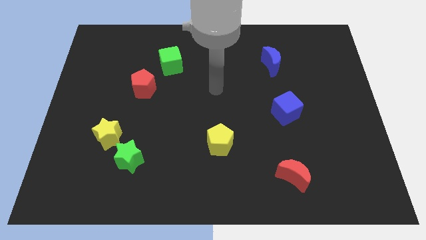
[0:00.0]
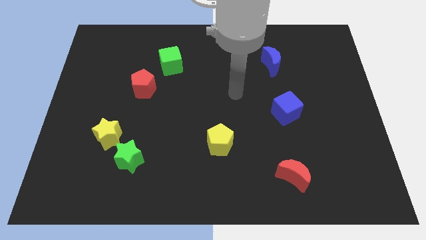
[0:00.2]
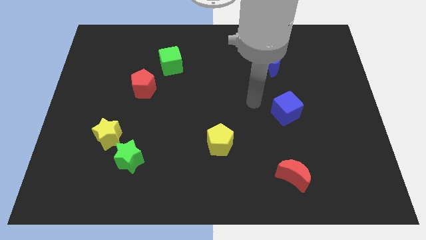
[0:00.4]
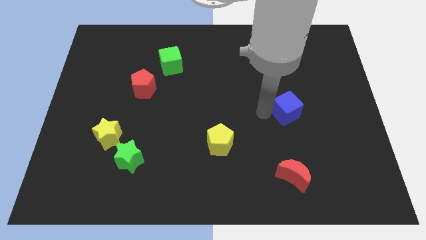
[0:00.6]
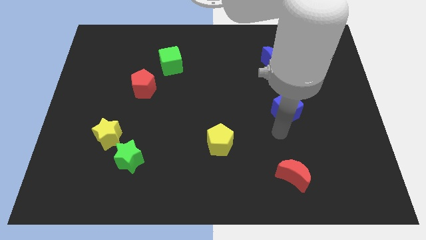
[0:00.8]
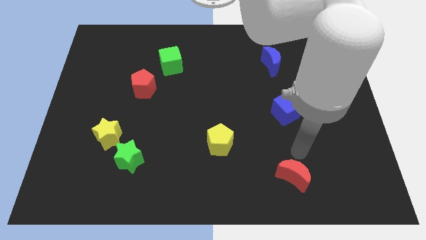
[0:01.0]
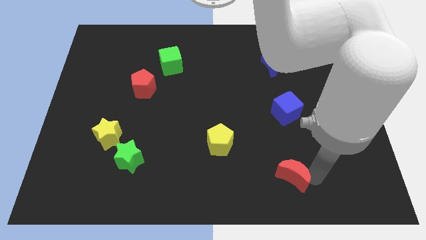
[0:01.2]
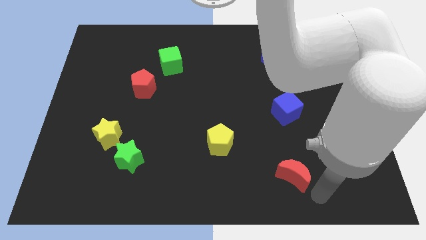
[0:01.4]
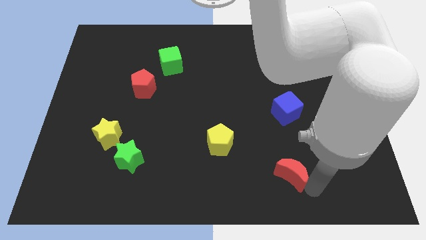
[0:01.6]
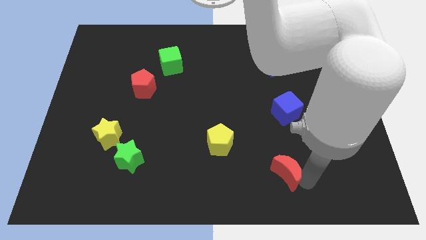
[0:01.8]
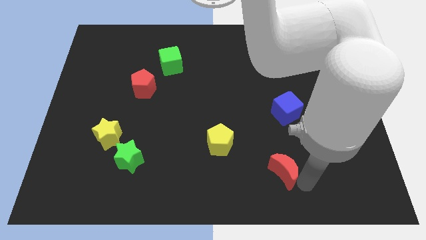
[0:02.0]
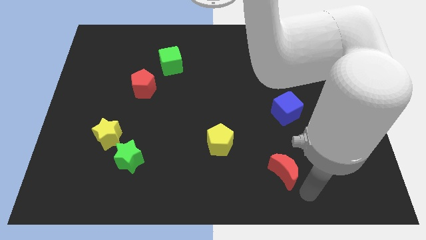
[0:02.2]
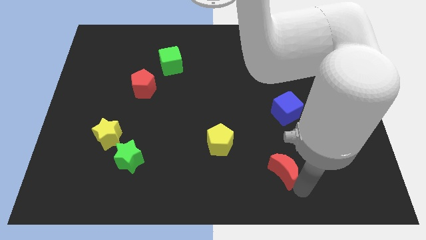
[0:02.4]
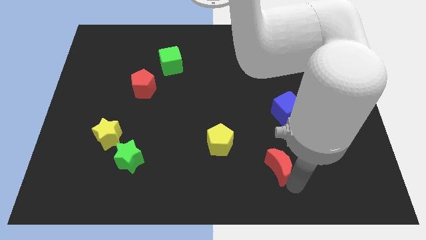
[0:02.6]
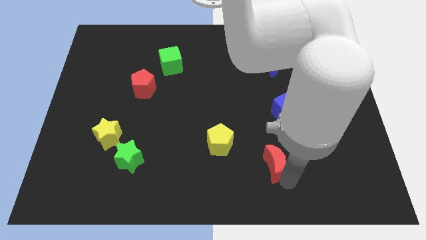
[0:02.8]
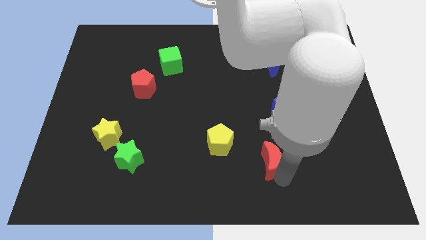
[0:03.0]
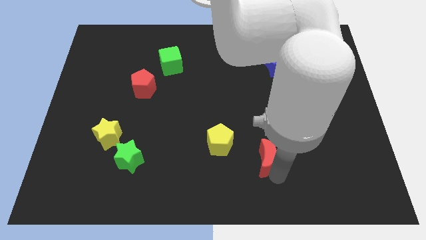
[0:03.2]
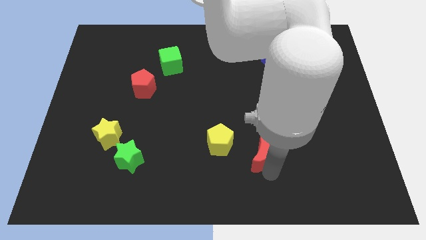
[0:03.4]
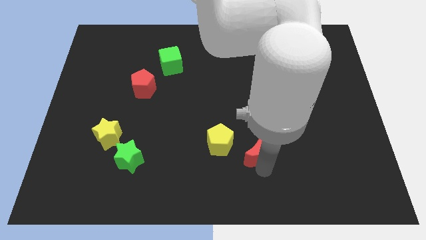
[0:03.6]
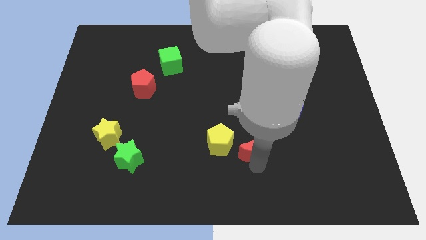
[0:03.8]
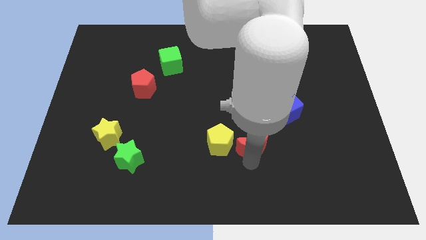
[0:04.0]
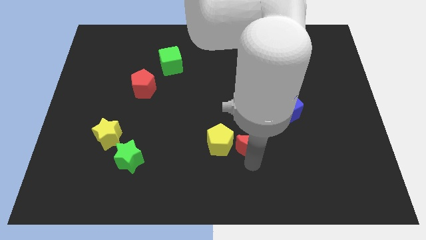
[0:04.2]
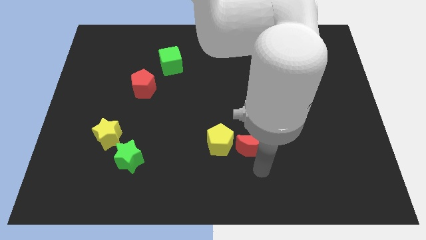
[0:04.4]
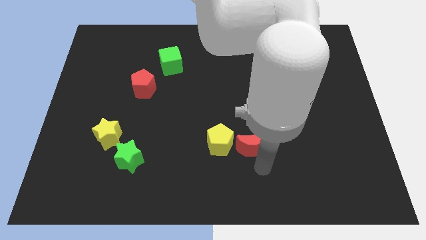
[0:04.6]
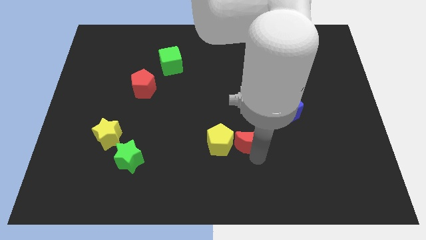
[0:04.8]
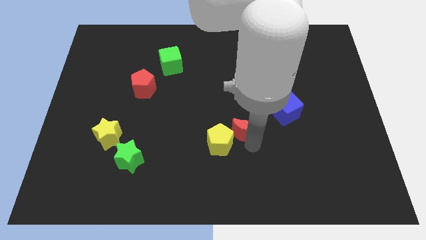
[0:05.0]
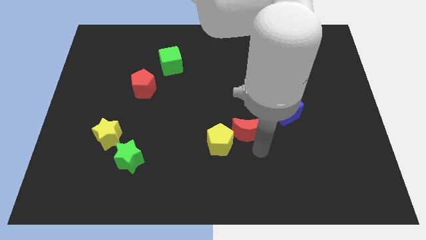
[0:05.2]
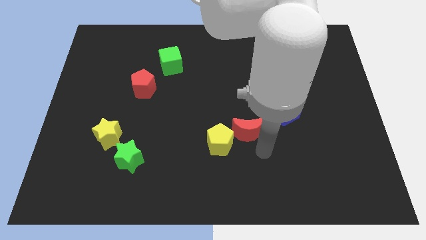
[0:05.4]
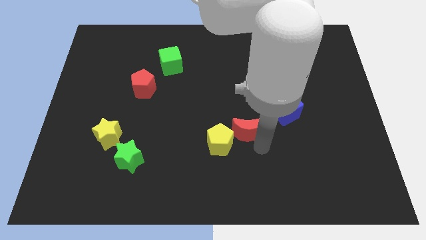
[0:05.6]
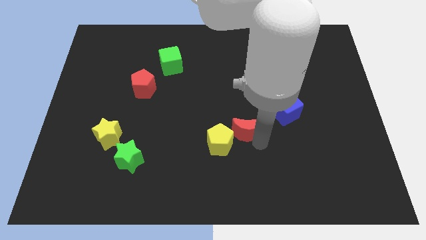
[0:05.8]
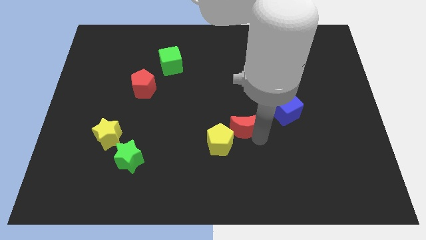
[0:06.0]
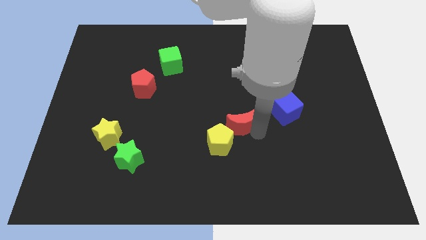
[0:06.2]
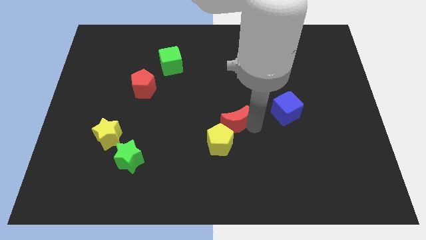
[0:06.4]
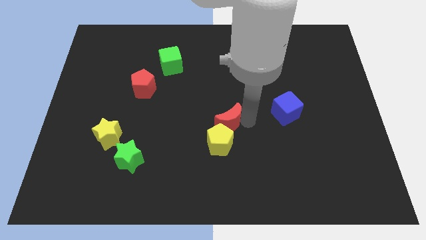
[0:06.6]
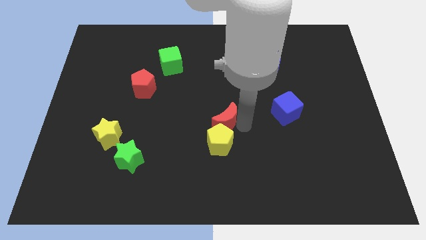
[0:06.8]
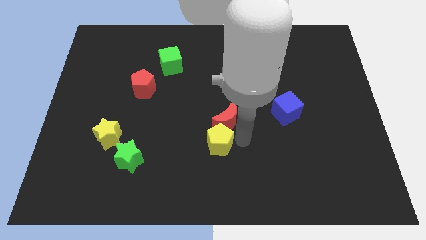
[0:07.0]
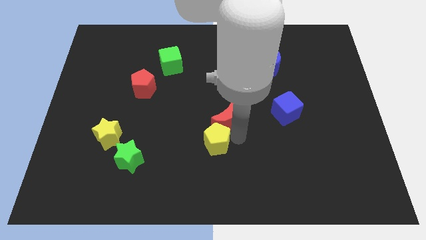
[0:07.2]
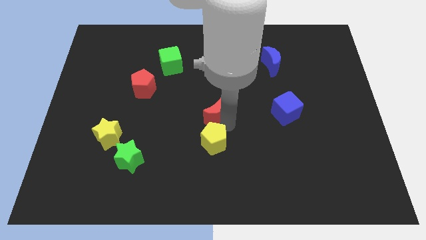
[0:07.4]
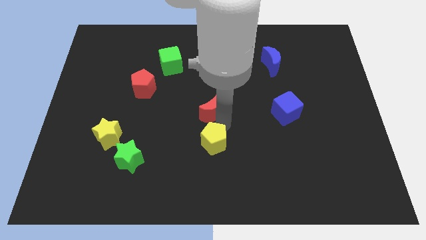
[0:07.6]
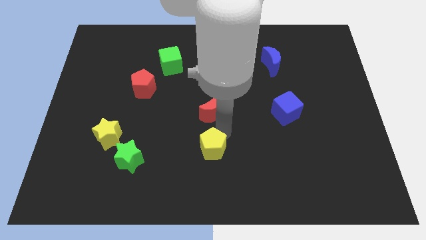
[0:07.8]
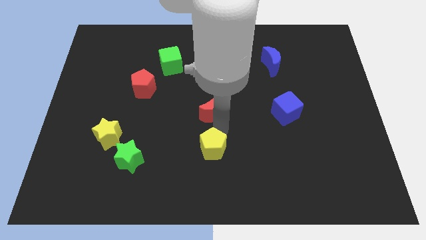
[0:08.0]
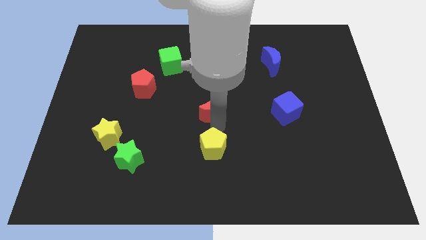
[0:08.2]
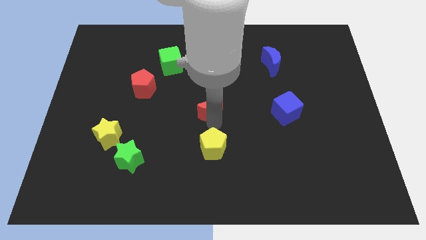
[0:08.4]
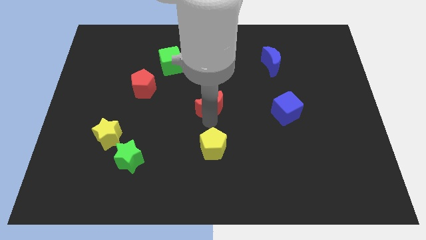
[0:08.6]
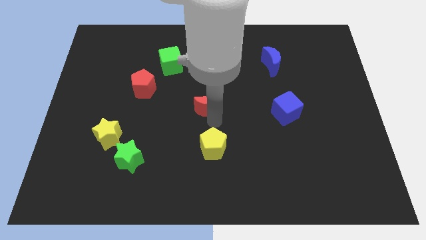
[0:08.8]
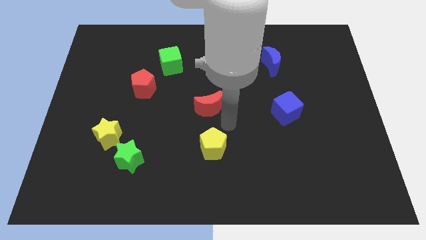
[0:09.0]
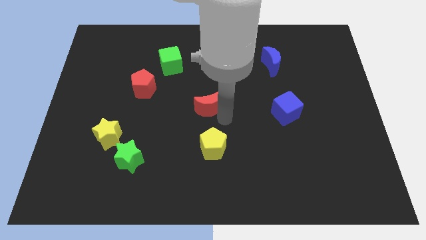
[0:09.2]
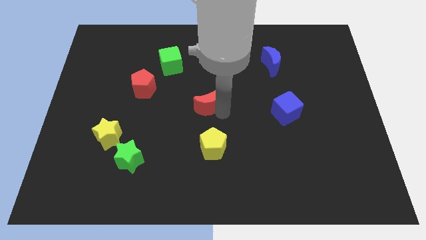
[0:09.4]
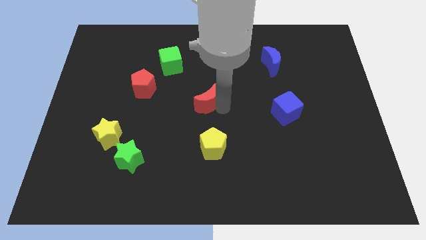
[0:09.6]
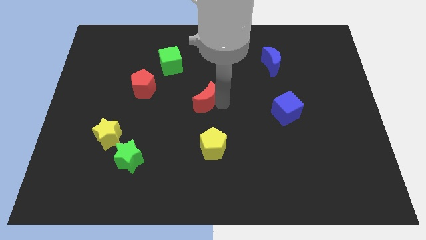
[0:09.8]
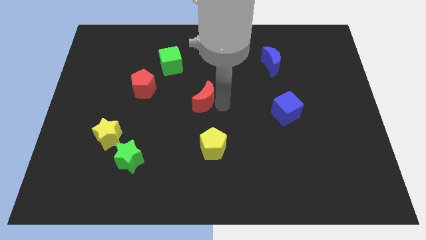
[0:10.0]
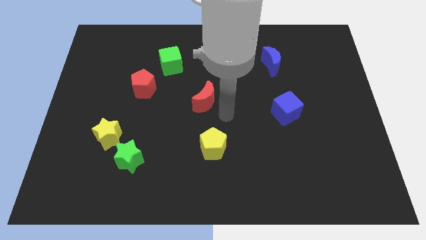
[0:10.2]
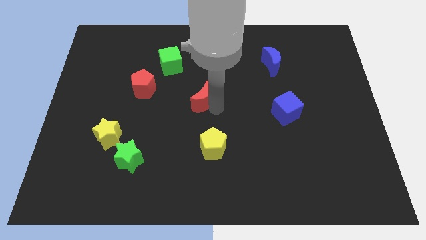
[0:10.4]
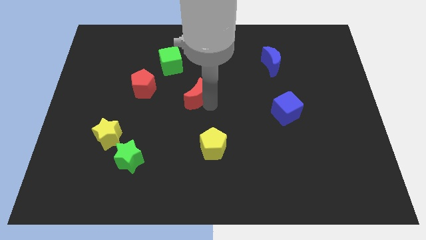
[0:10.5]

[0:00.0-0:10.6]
push the red moon right of the red pentagon

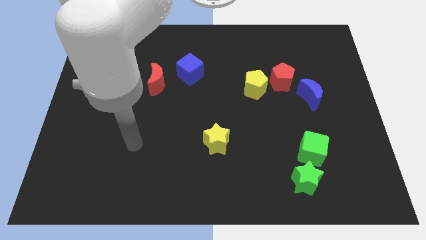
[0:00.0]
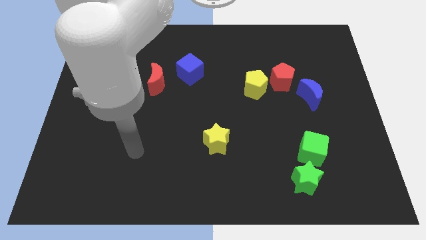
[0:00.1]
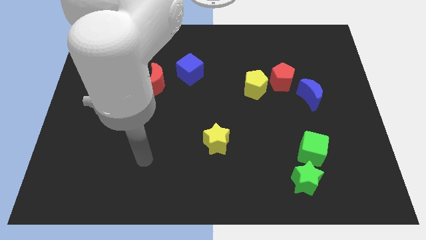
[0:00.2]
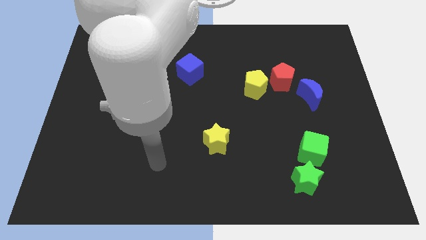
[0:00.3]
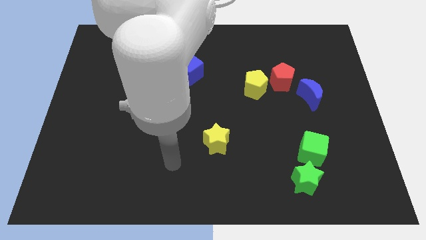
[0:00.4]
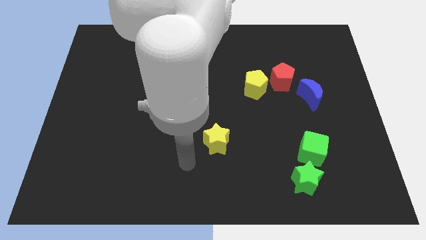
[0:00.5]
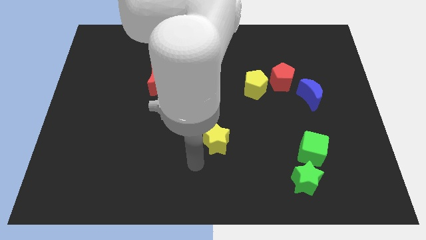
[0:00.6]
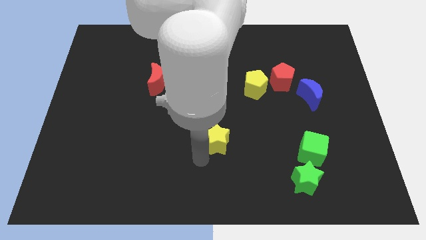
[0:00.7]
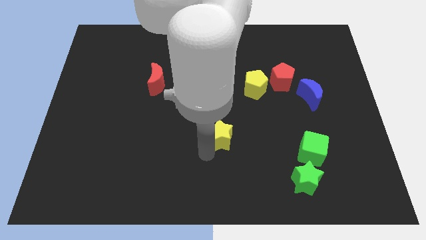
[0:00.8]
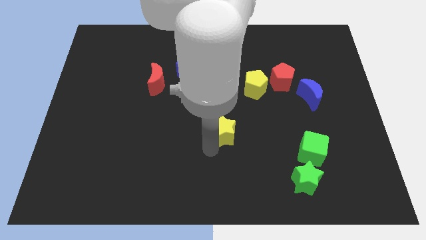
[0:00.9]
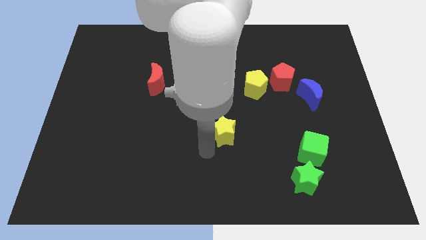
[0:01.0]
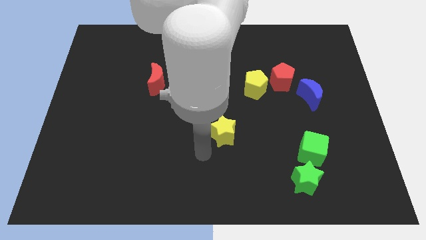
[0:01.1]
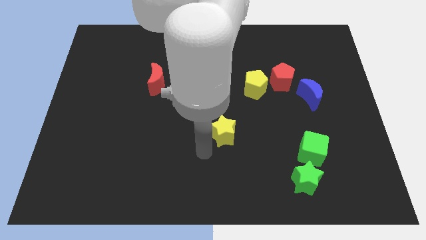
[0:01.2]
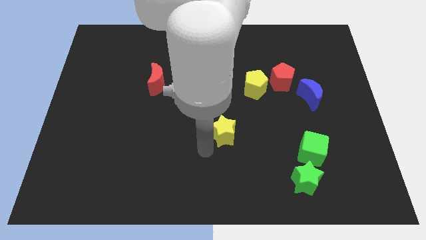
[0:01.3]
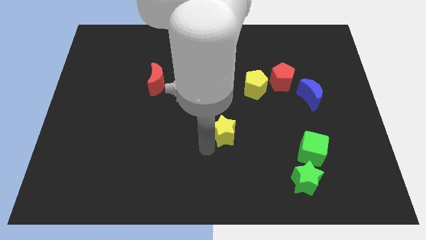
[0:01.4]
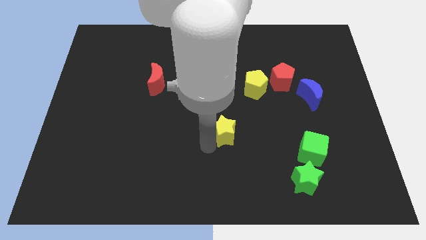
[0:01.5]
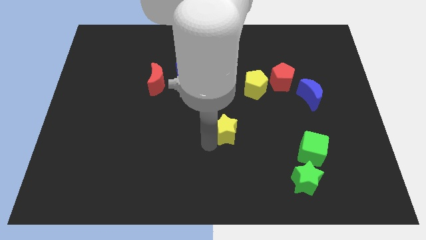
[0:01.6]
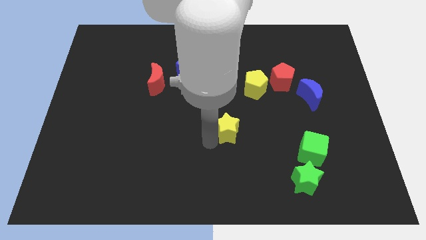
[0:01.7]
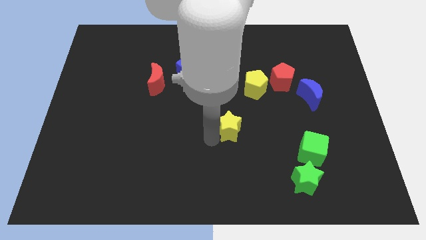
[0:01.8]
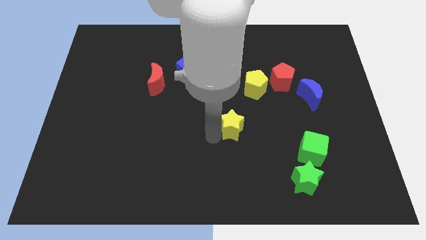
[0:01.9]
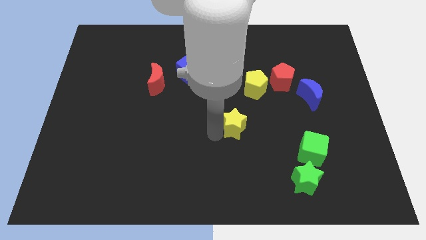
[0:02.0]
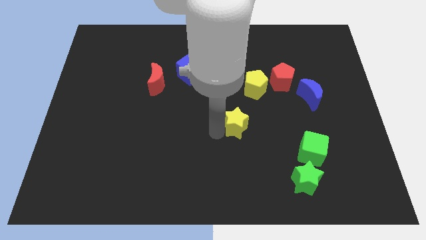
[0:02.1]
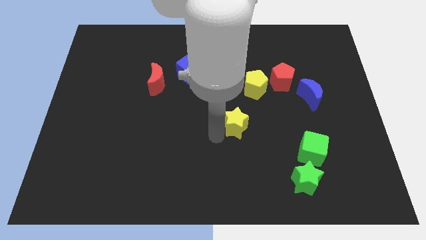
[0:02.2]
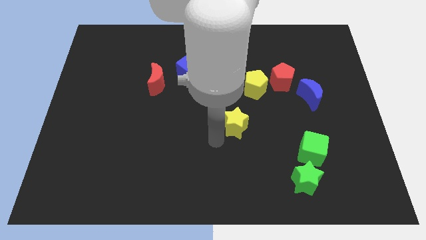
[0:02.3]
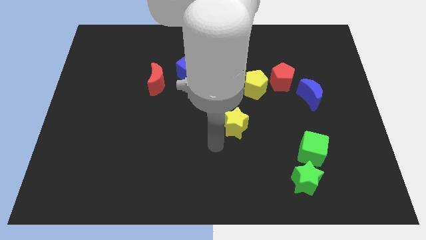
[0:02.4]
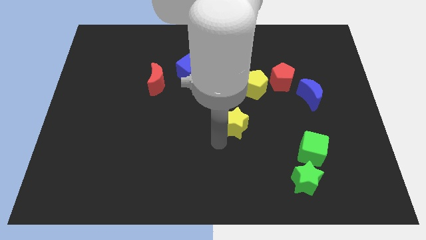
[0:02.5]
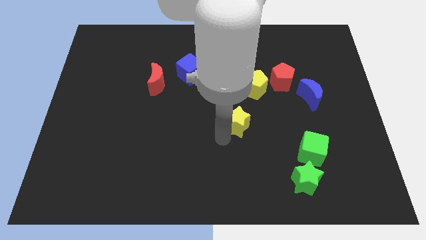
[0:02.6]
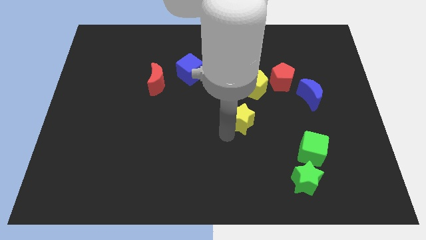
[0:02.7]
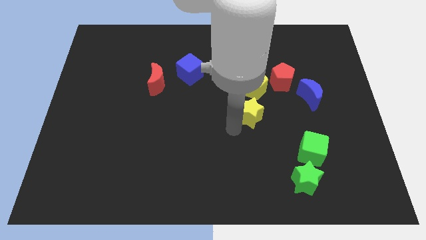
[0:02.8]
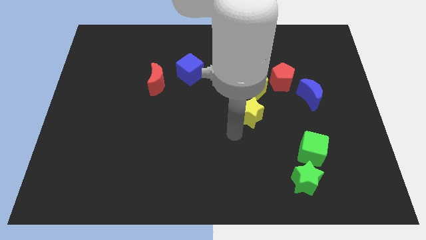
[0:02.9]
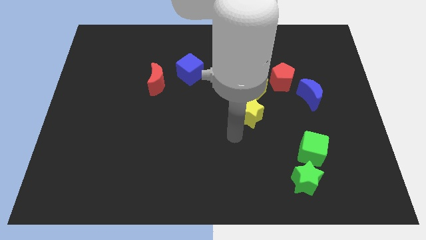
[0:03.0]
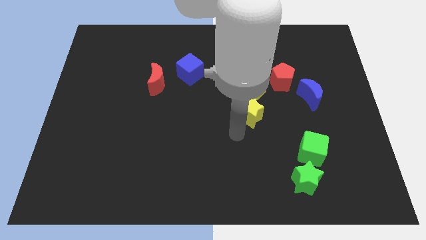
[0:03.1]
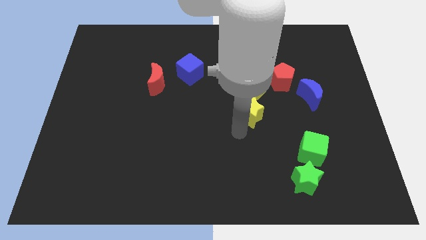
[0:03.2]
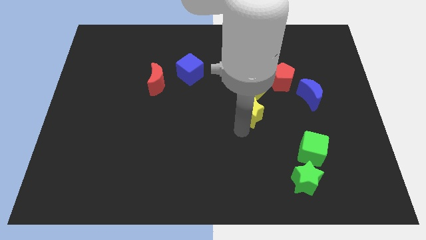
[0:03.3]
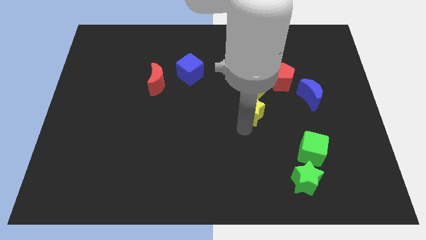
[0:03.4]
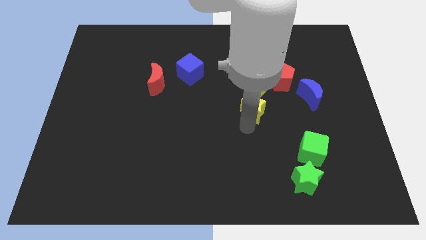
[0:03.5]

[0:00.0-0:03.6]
push the yellow star diagonally down and to the left of the red pentagon
